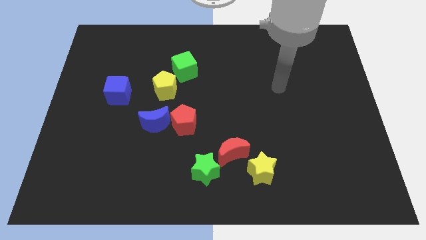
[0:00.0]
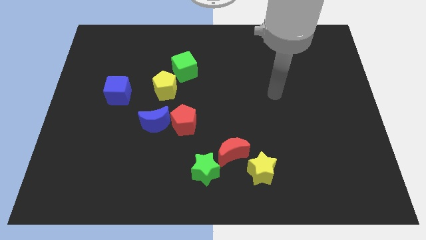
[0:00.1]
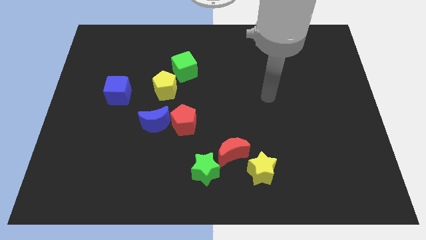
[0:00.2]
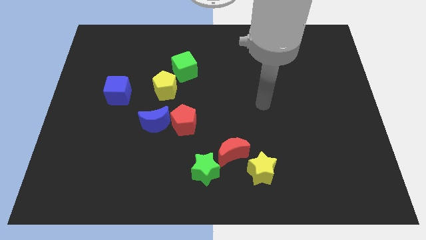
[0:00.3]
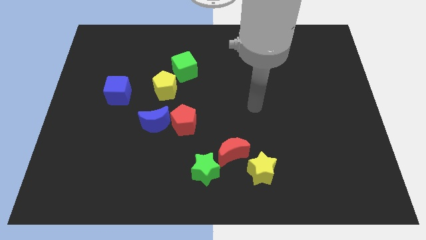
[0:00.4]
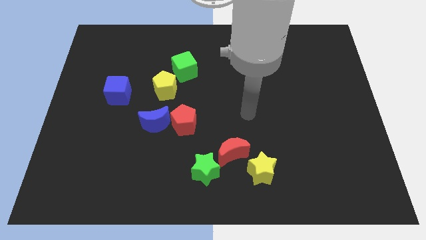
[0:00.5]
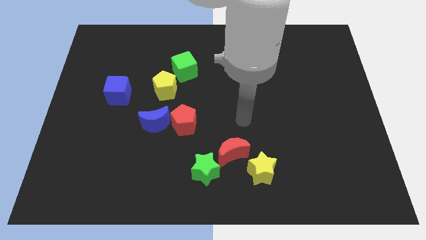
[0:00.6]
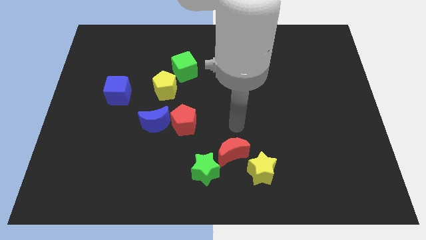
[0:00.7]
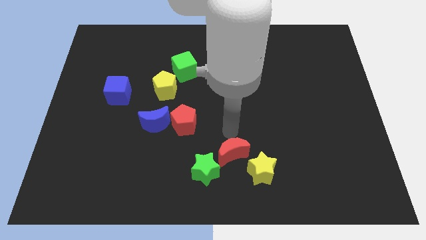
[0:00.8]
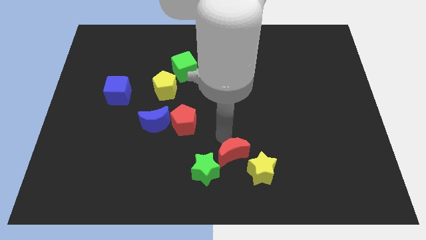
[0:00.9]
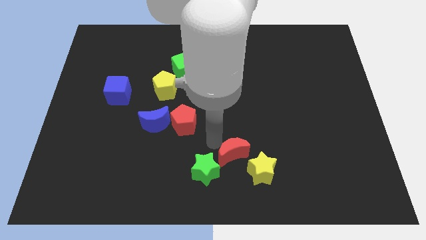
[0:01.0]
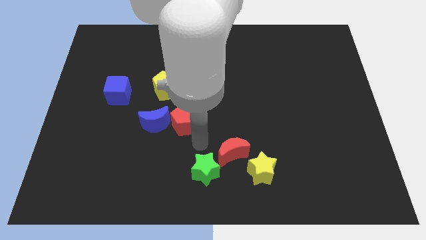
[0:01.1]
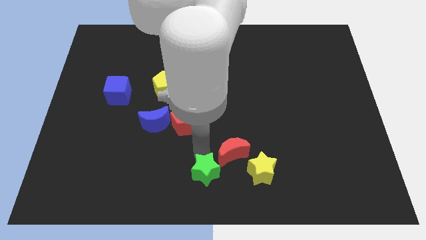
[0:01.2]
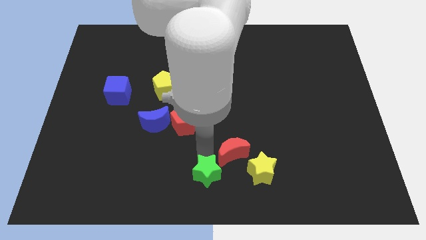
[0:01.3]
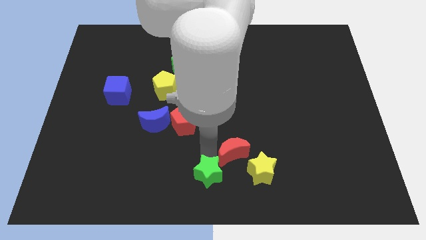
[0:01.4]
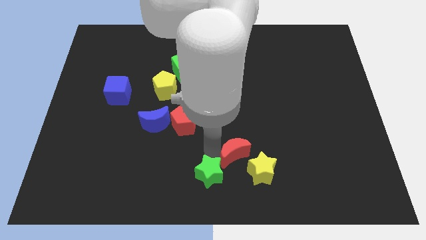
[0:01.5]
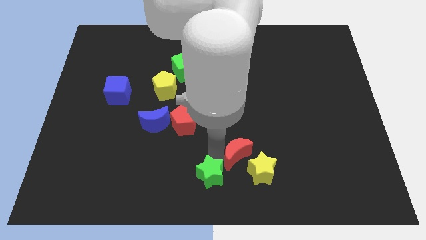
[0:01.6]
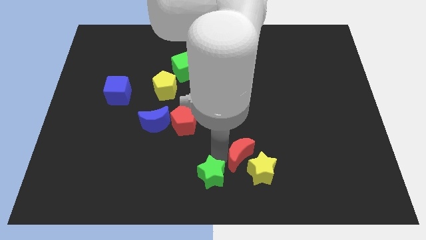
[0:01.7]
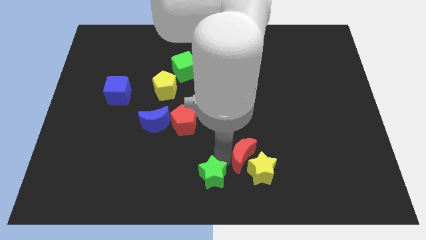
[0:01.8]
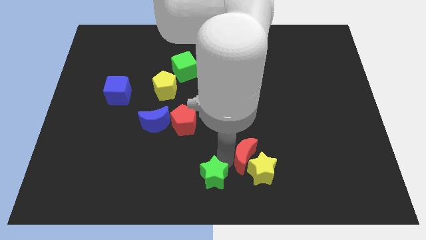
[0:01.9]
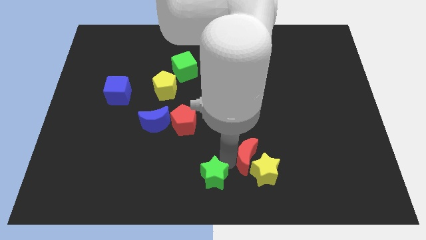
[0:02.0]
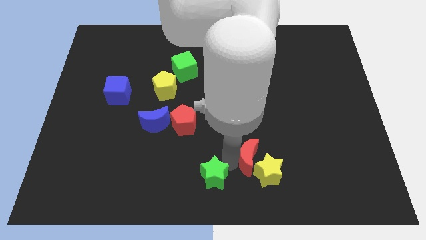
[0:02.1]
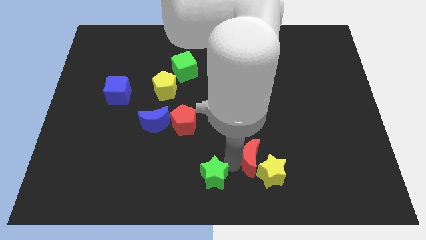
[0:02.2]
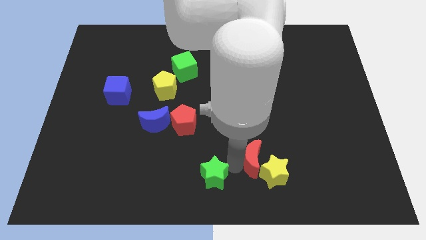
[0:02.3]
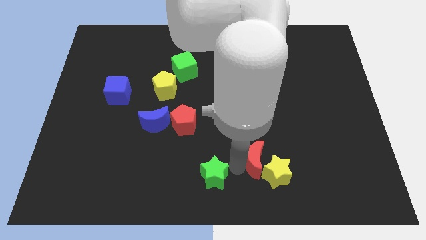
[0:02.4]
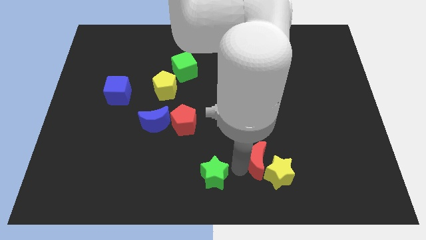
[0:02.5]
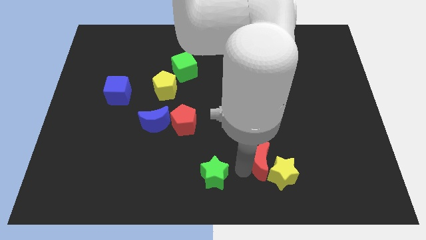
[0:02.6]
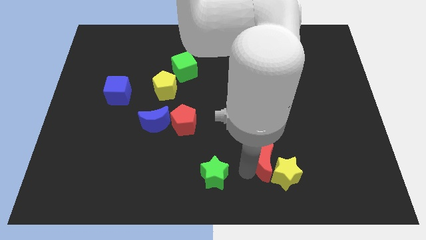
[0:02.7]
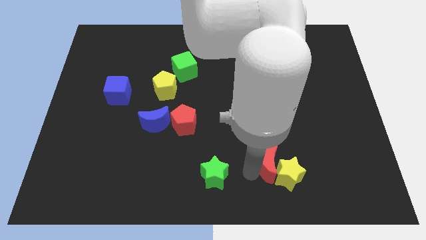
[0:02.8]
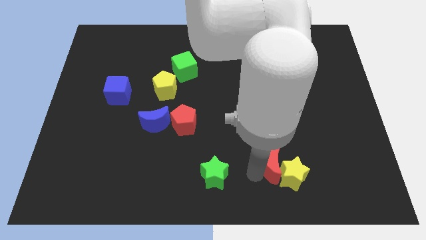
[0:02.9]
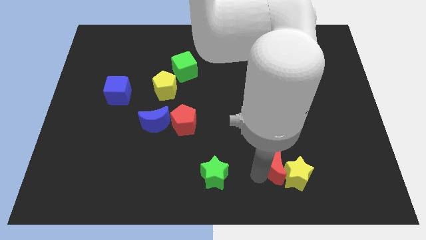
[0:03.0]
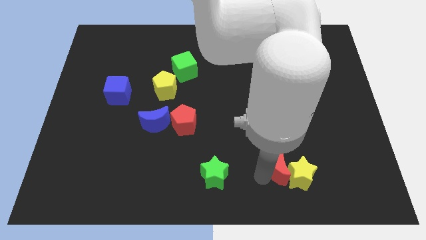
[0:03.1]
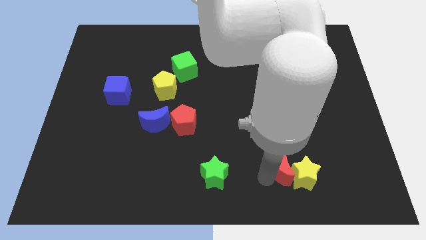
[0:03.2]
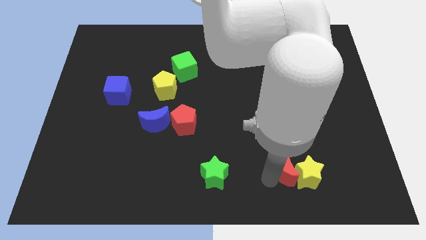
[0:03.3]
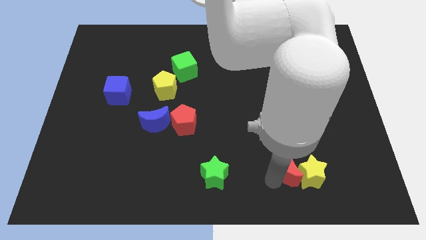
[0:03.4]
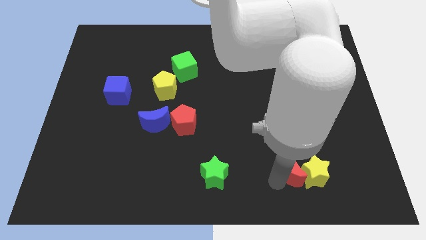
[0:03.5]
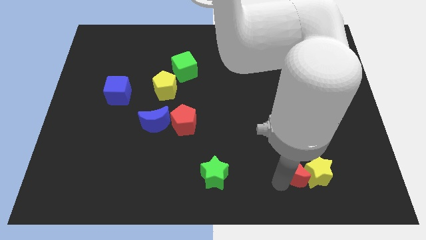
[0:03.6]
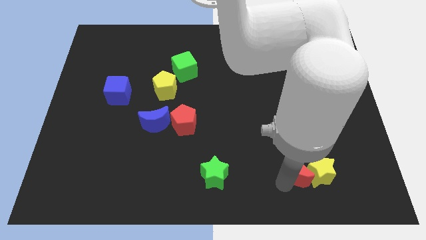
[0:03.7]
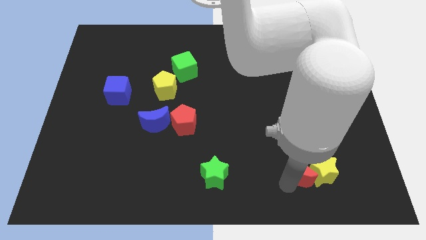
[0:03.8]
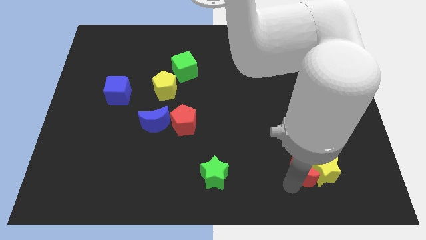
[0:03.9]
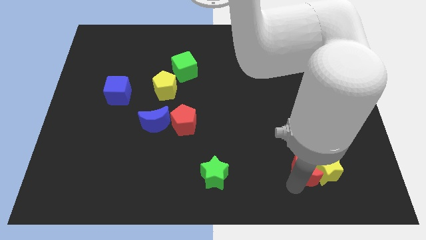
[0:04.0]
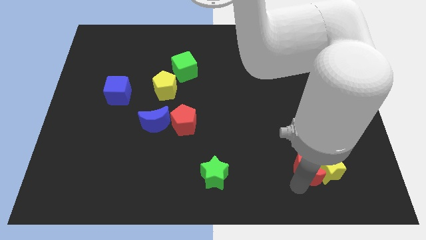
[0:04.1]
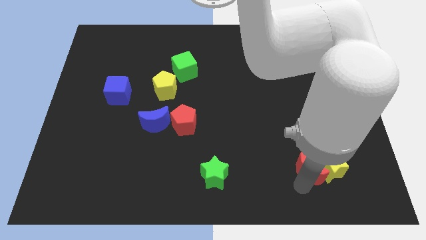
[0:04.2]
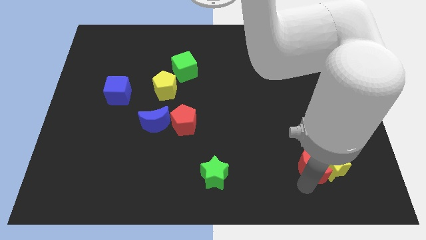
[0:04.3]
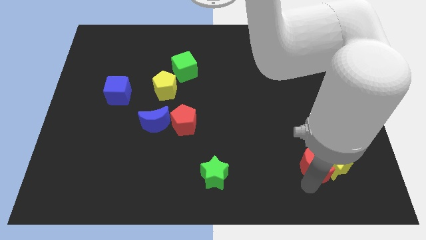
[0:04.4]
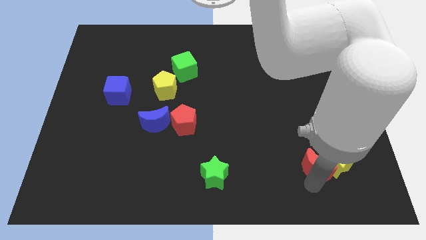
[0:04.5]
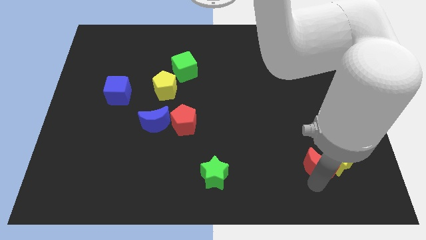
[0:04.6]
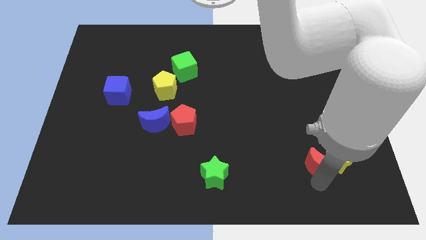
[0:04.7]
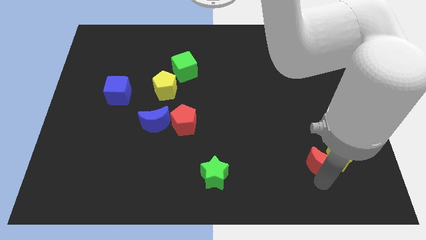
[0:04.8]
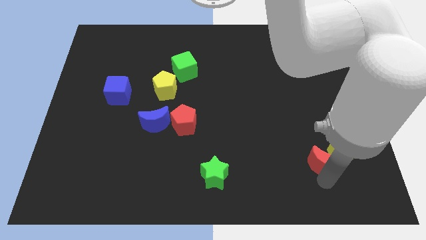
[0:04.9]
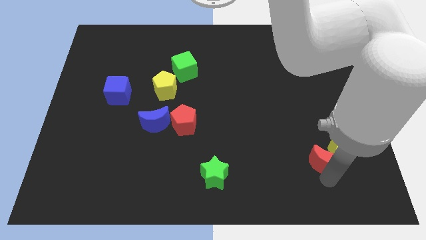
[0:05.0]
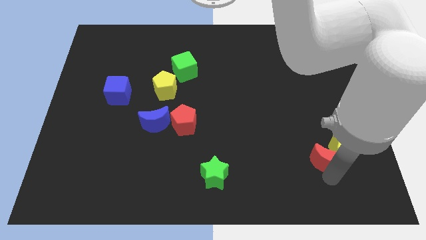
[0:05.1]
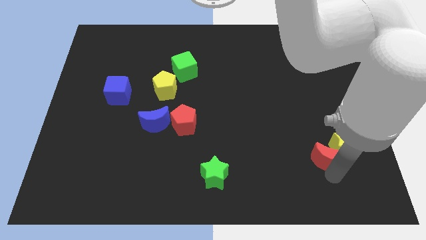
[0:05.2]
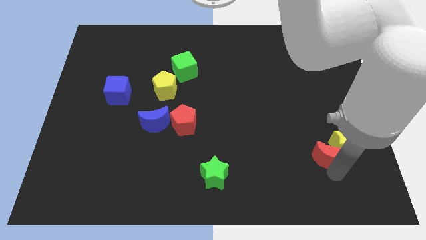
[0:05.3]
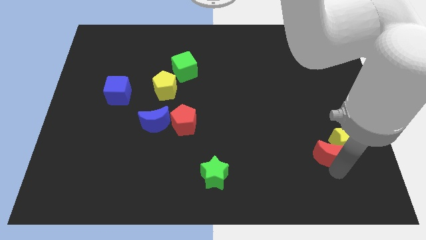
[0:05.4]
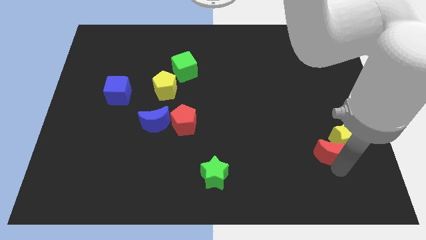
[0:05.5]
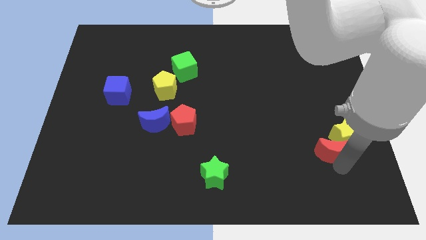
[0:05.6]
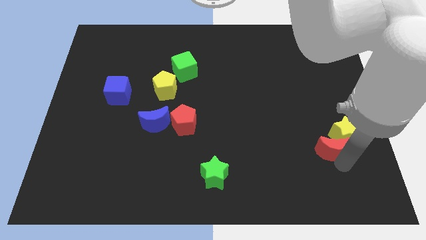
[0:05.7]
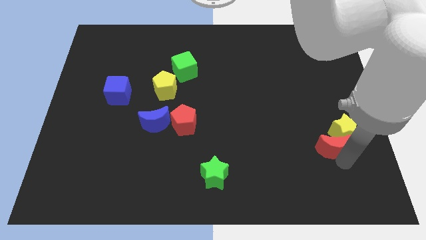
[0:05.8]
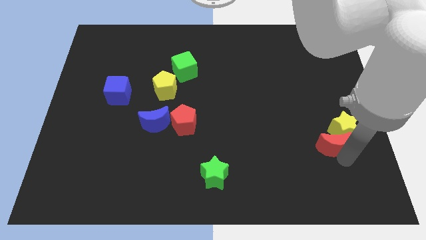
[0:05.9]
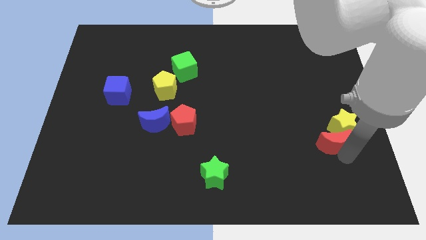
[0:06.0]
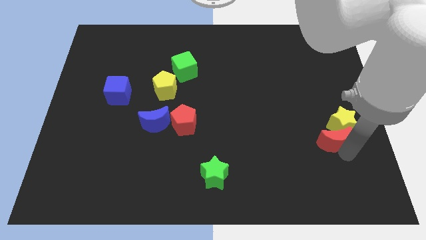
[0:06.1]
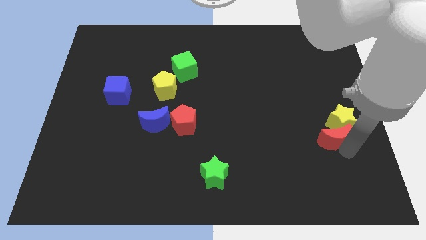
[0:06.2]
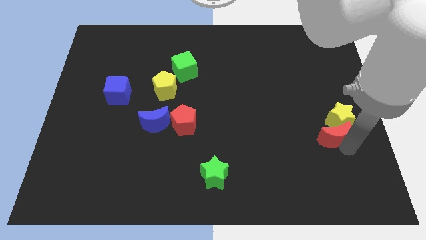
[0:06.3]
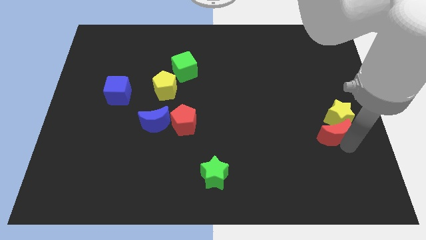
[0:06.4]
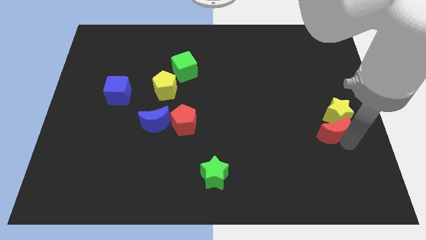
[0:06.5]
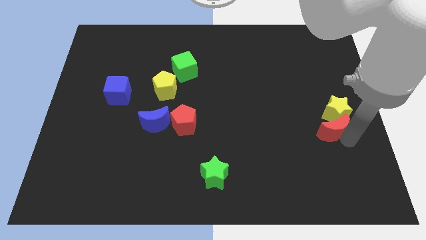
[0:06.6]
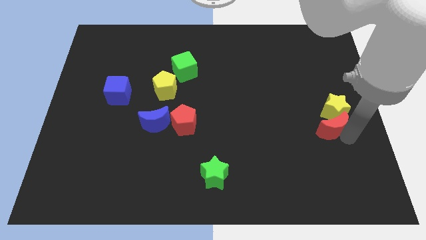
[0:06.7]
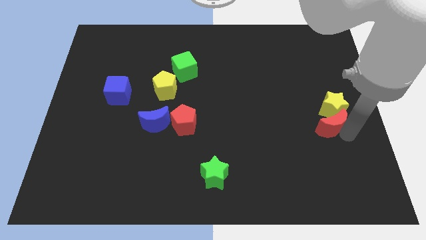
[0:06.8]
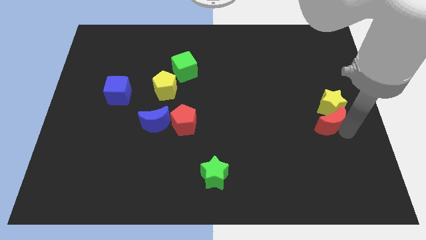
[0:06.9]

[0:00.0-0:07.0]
move the red moon to the right side of the board

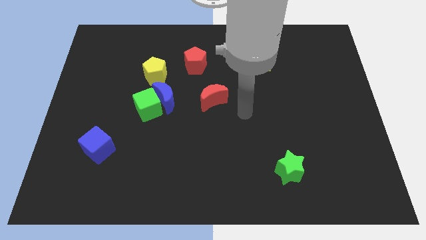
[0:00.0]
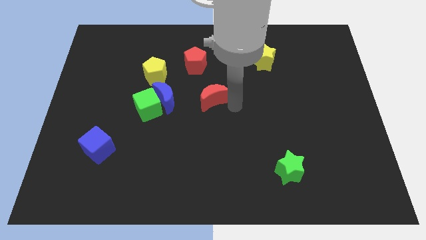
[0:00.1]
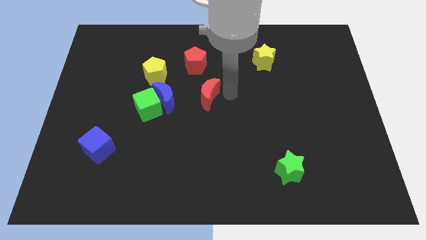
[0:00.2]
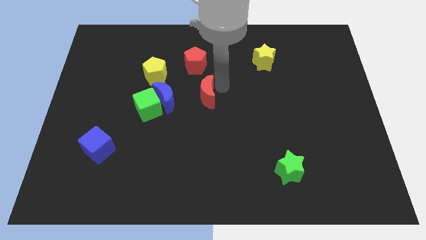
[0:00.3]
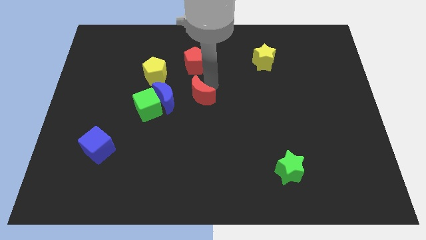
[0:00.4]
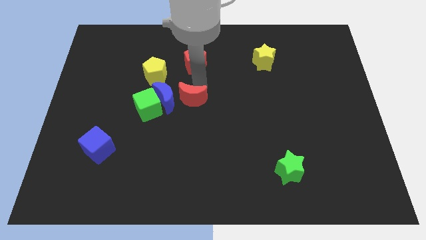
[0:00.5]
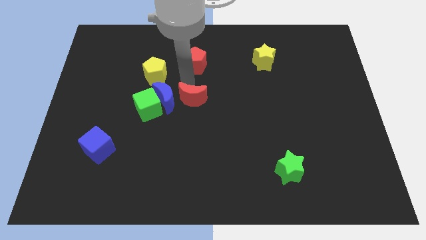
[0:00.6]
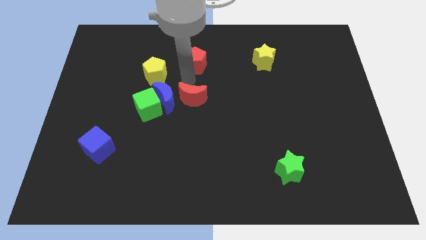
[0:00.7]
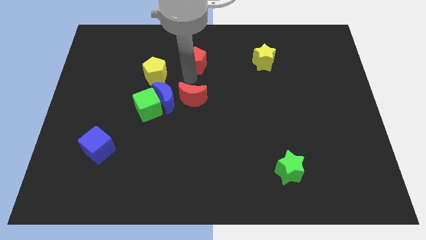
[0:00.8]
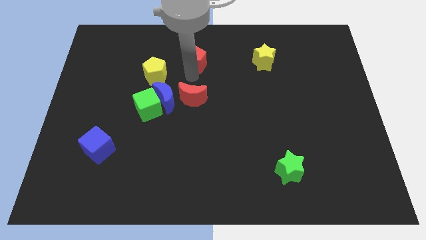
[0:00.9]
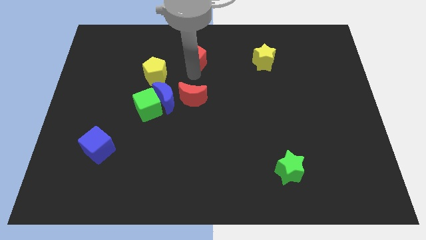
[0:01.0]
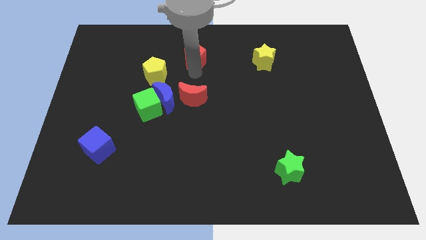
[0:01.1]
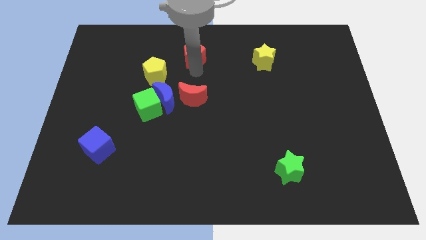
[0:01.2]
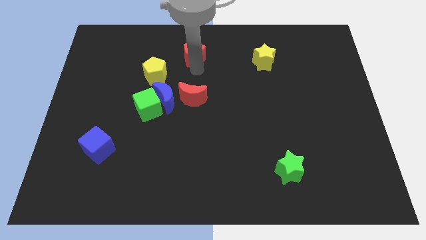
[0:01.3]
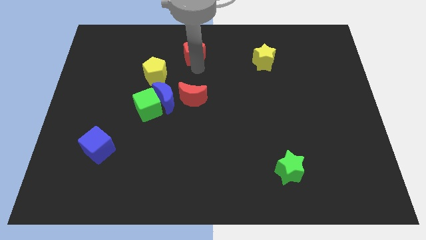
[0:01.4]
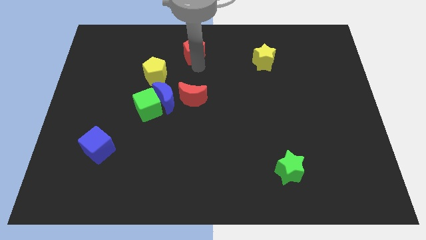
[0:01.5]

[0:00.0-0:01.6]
push the red pentagon to the top
